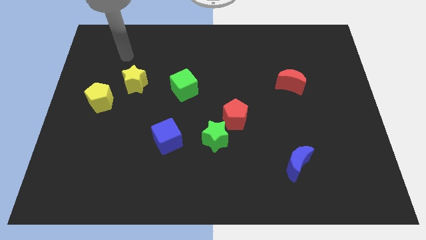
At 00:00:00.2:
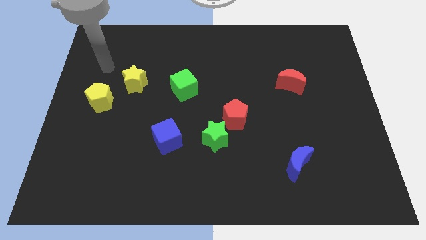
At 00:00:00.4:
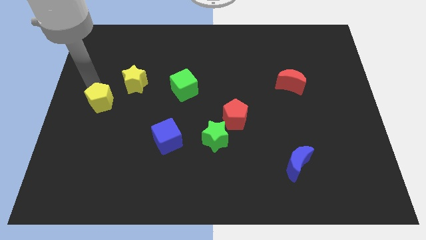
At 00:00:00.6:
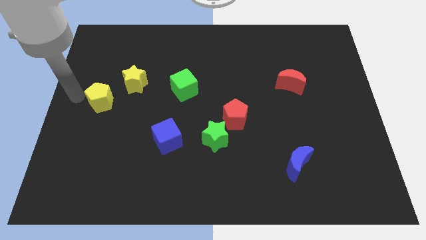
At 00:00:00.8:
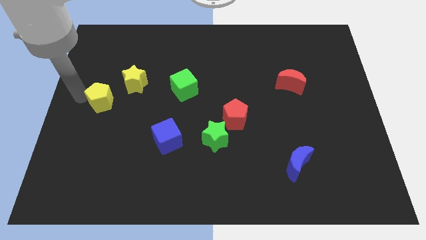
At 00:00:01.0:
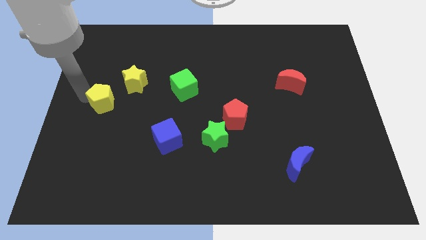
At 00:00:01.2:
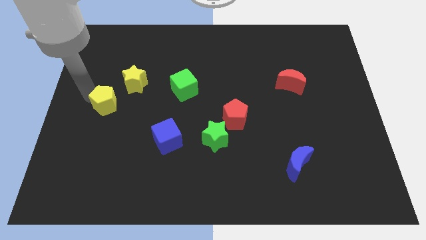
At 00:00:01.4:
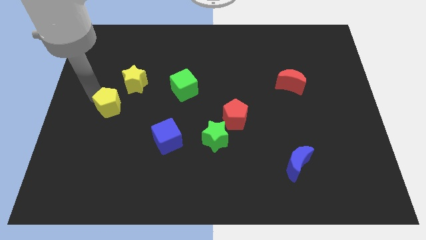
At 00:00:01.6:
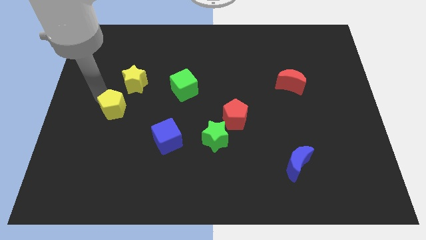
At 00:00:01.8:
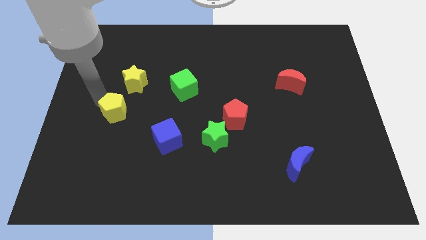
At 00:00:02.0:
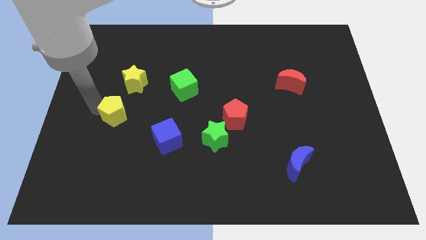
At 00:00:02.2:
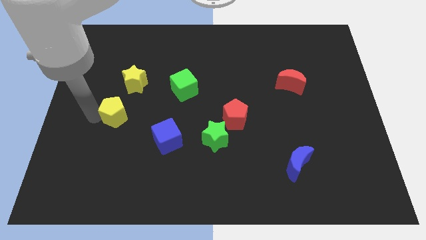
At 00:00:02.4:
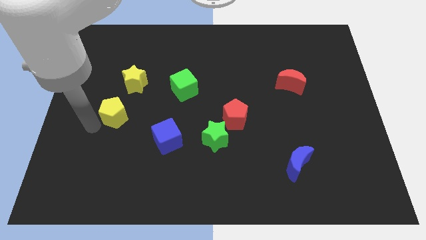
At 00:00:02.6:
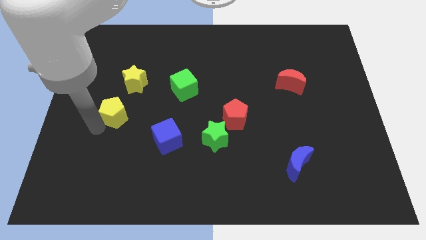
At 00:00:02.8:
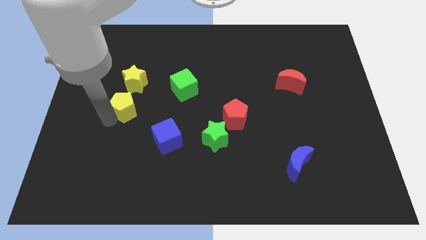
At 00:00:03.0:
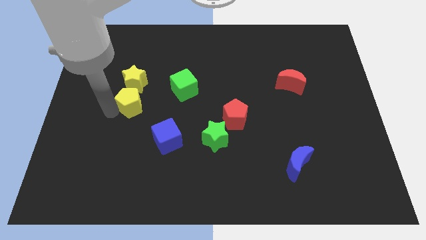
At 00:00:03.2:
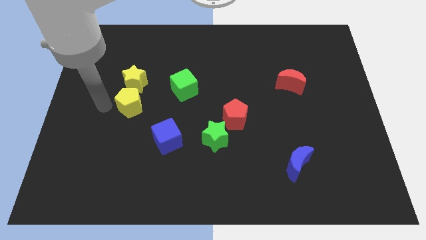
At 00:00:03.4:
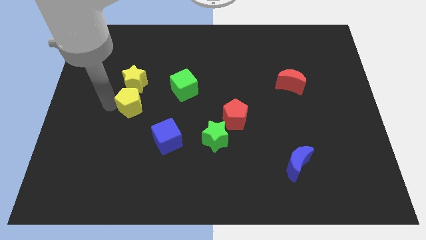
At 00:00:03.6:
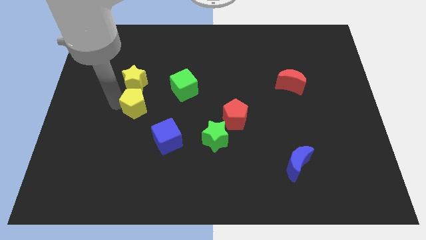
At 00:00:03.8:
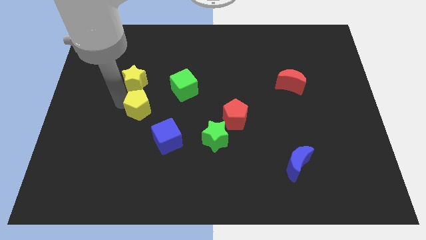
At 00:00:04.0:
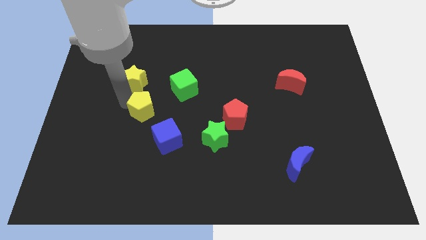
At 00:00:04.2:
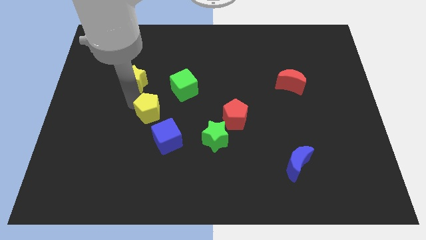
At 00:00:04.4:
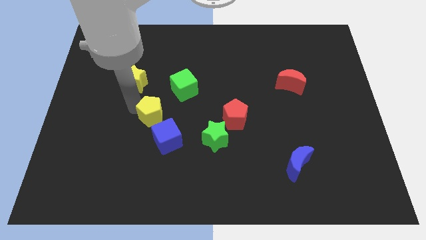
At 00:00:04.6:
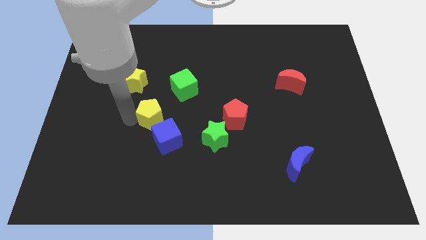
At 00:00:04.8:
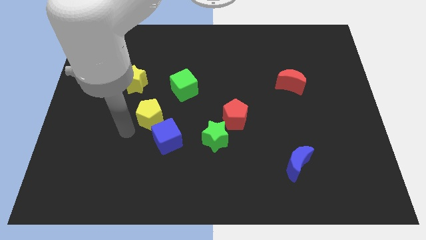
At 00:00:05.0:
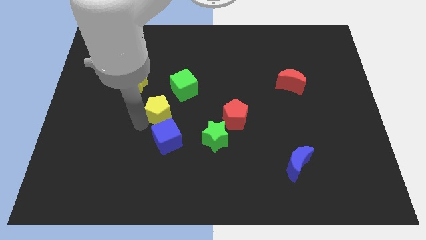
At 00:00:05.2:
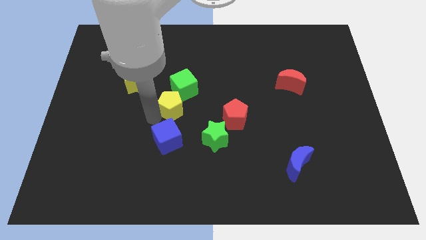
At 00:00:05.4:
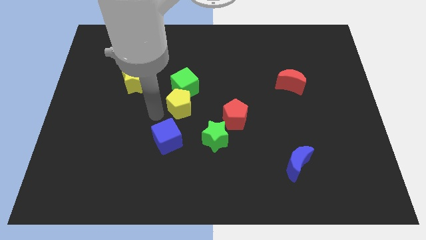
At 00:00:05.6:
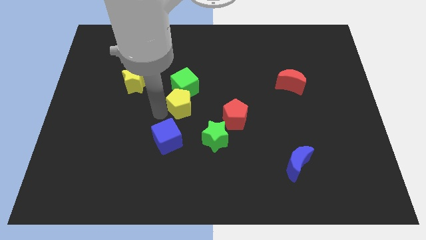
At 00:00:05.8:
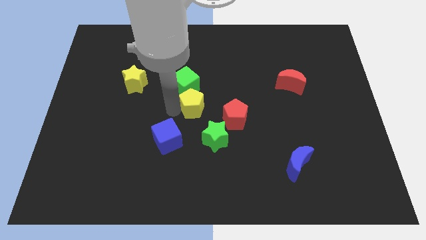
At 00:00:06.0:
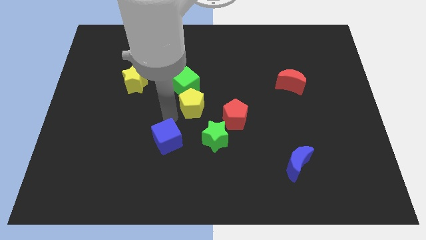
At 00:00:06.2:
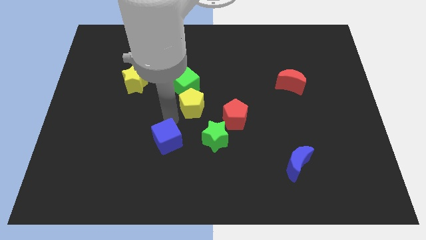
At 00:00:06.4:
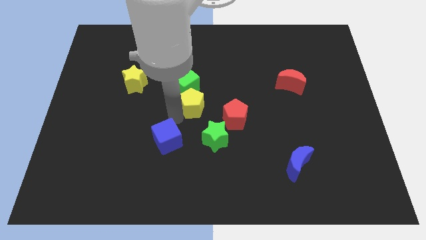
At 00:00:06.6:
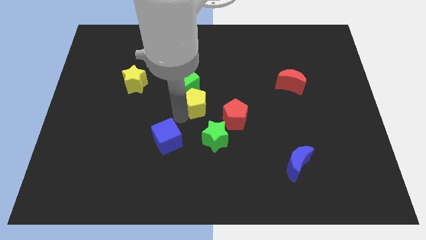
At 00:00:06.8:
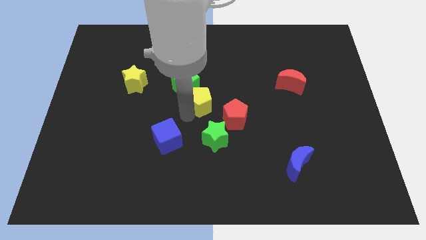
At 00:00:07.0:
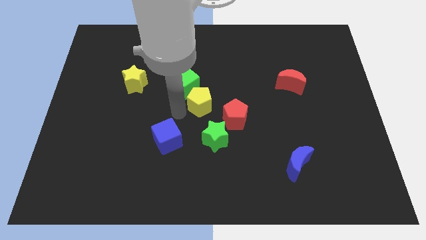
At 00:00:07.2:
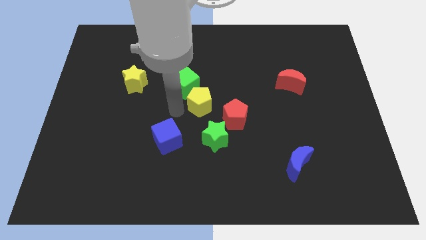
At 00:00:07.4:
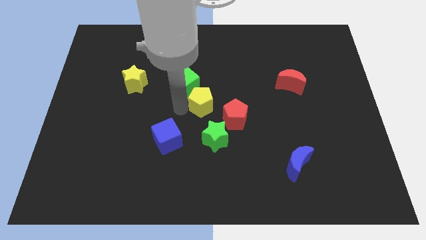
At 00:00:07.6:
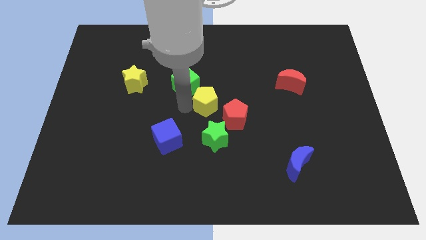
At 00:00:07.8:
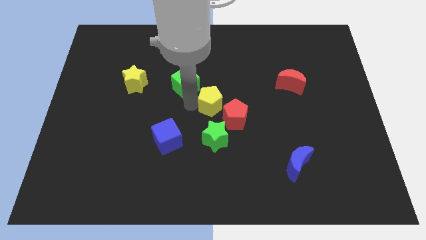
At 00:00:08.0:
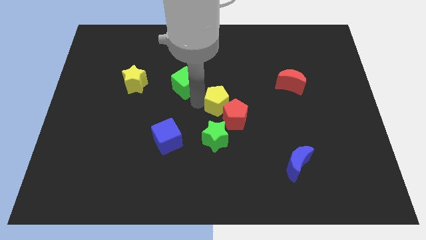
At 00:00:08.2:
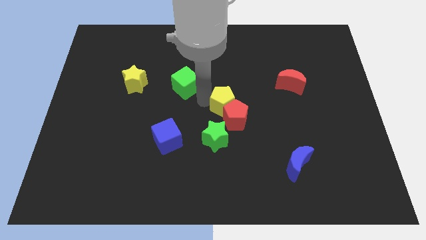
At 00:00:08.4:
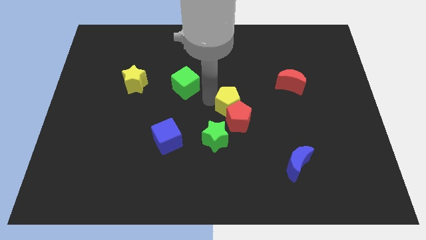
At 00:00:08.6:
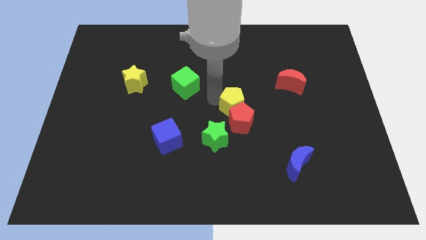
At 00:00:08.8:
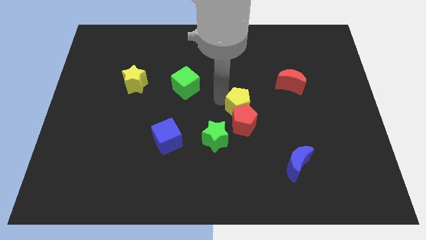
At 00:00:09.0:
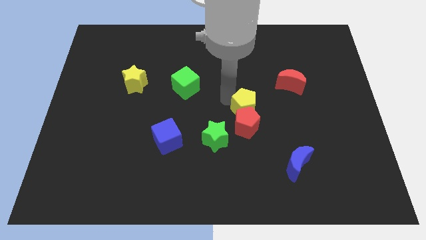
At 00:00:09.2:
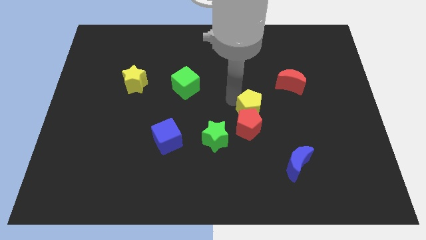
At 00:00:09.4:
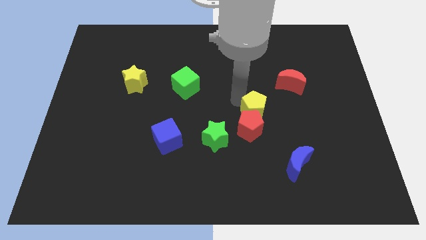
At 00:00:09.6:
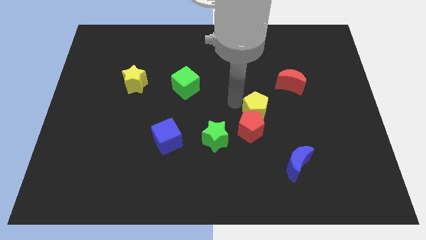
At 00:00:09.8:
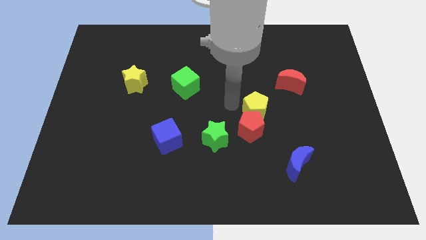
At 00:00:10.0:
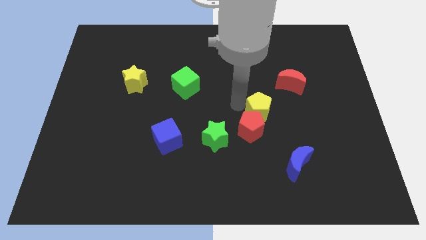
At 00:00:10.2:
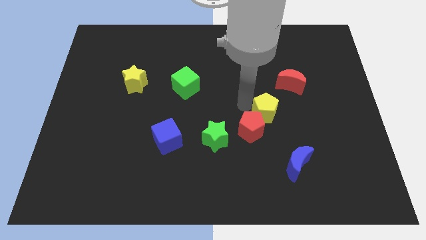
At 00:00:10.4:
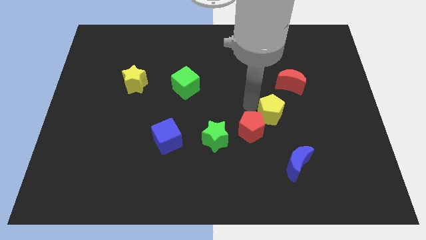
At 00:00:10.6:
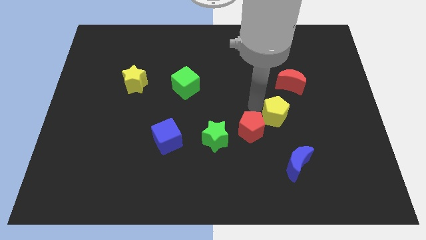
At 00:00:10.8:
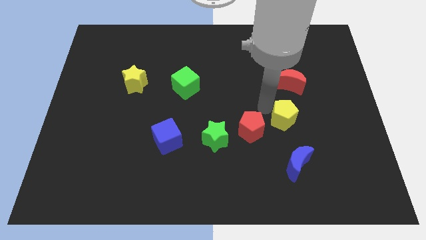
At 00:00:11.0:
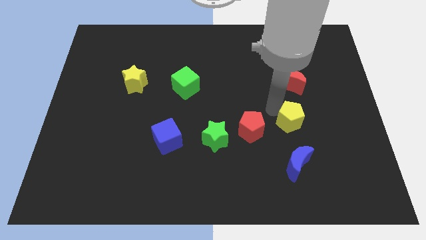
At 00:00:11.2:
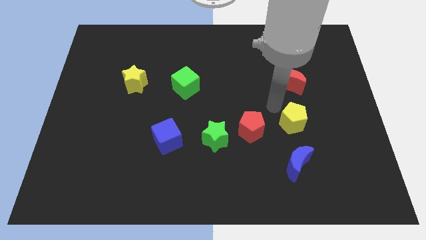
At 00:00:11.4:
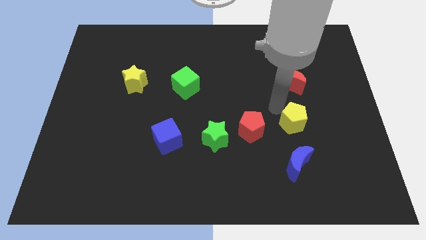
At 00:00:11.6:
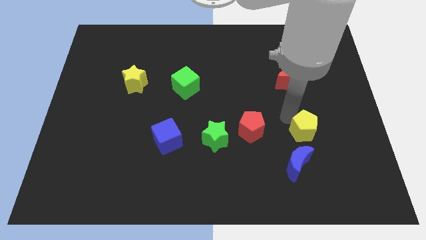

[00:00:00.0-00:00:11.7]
move the yellow pentagon diagonally up and to the right of the blue moon

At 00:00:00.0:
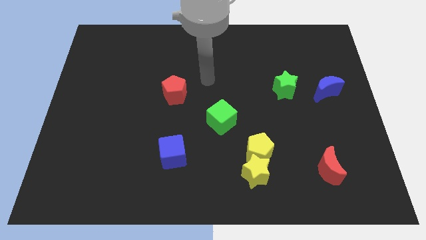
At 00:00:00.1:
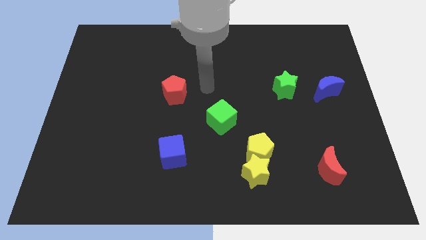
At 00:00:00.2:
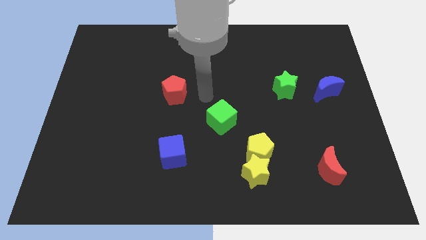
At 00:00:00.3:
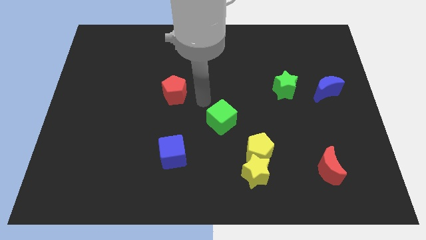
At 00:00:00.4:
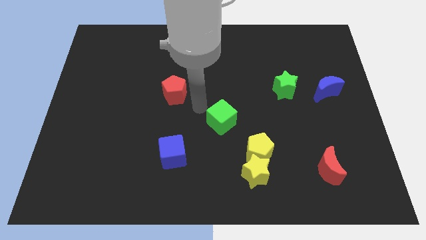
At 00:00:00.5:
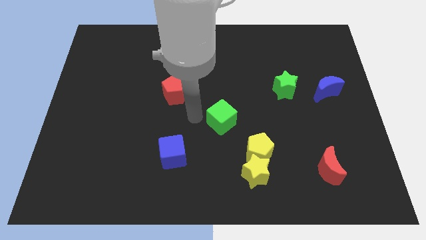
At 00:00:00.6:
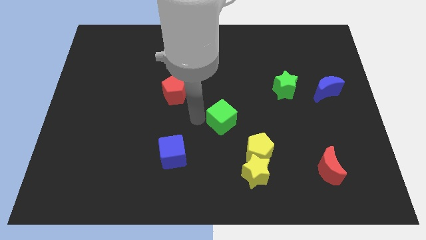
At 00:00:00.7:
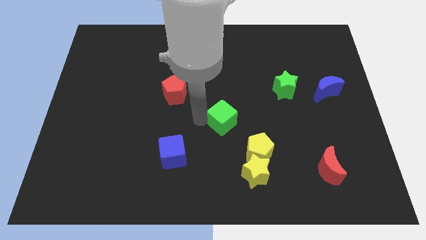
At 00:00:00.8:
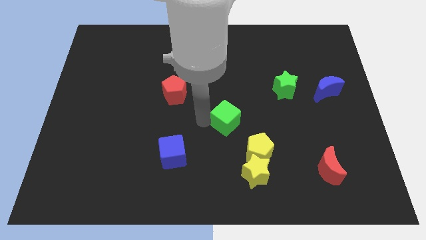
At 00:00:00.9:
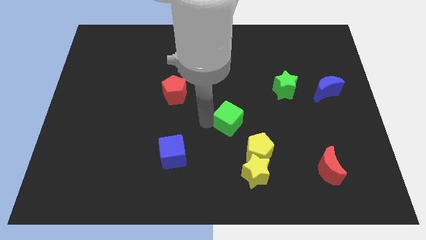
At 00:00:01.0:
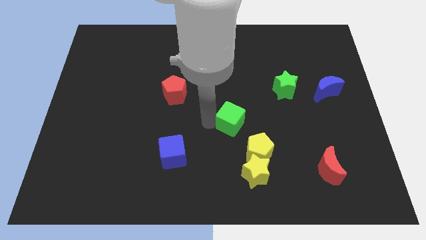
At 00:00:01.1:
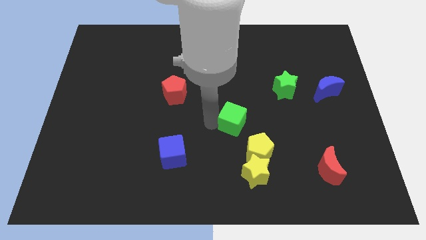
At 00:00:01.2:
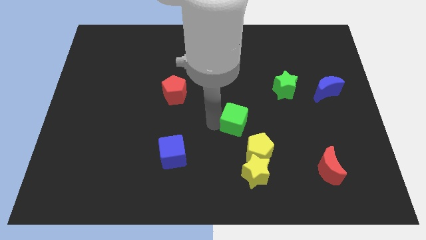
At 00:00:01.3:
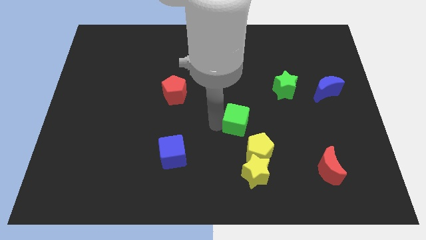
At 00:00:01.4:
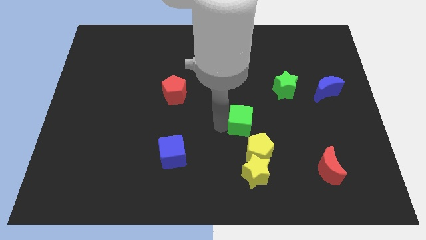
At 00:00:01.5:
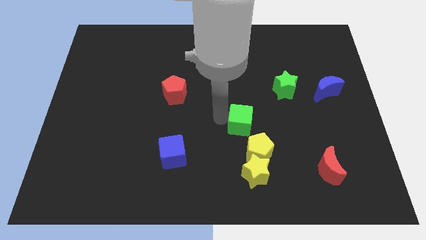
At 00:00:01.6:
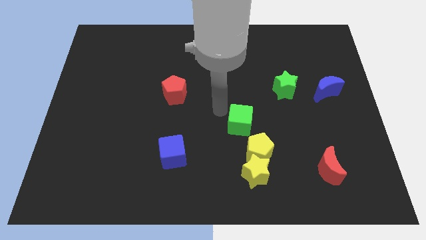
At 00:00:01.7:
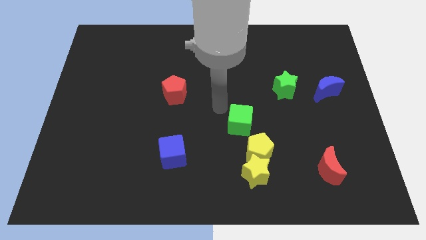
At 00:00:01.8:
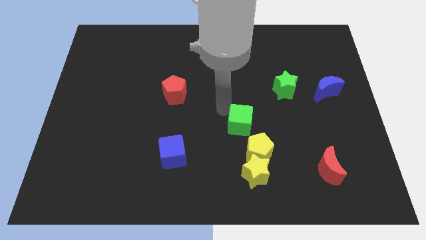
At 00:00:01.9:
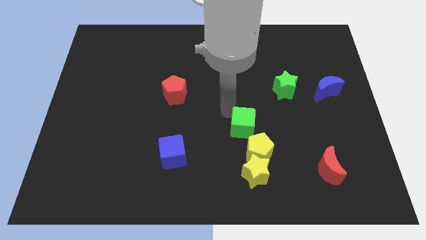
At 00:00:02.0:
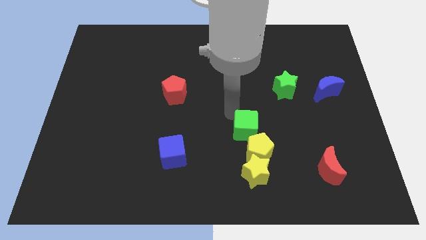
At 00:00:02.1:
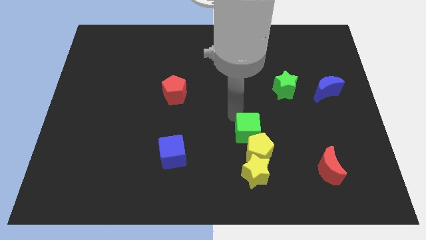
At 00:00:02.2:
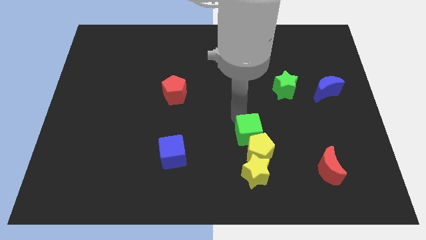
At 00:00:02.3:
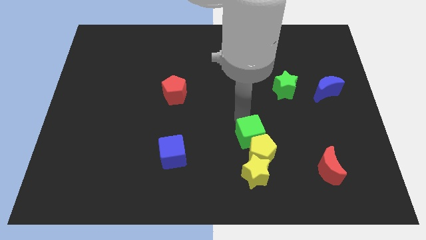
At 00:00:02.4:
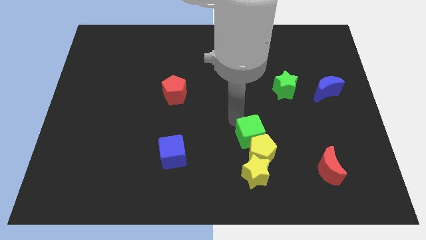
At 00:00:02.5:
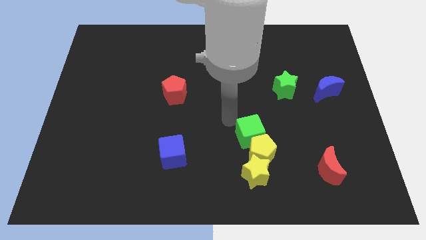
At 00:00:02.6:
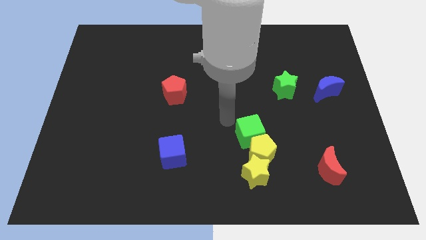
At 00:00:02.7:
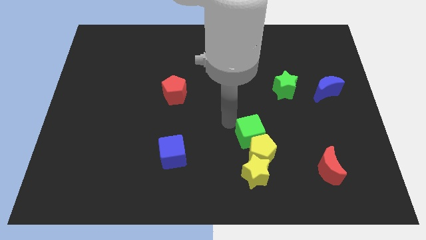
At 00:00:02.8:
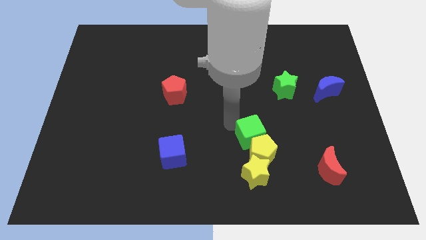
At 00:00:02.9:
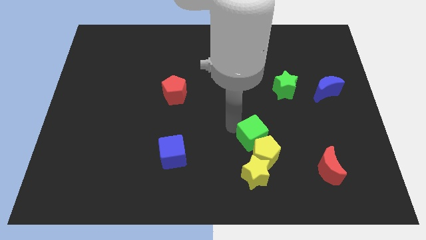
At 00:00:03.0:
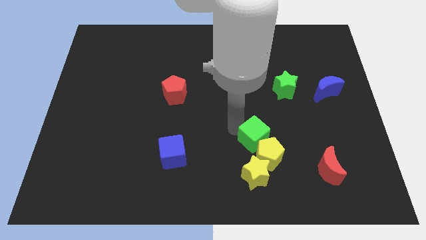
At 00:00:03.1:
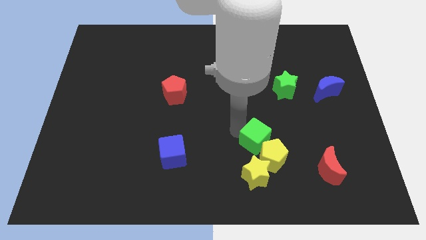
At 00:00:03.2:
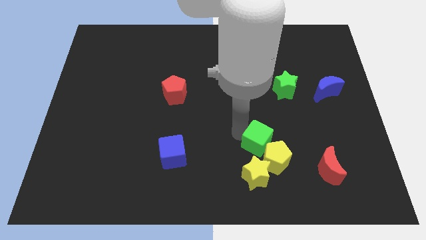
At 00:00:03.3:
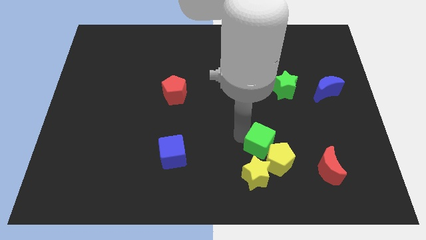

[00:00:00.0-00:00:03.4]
slide the green cube to the top right of the yellow star
